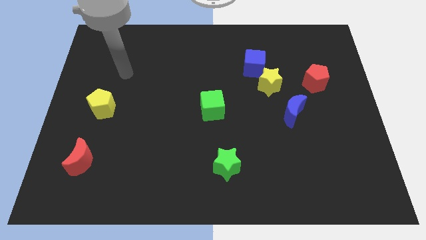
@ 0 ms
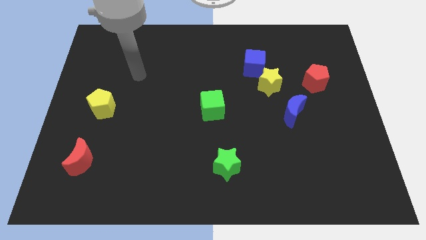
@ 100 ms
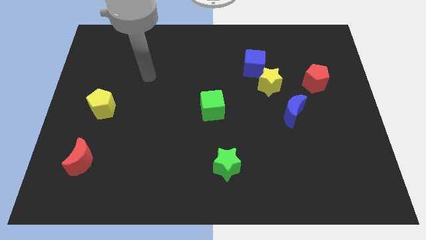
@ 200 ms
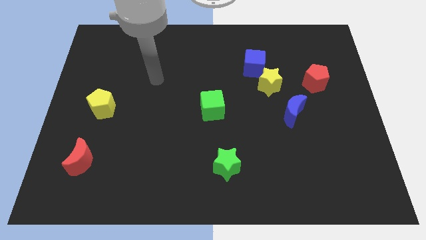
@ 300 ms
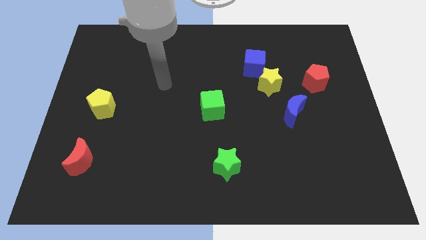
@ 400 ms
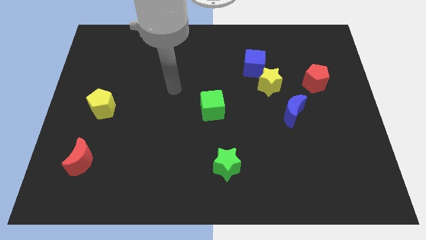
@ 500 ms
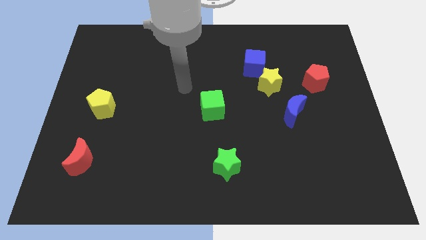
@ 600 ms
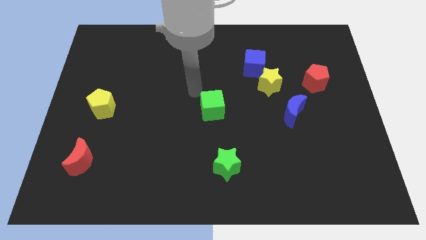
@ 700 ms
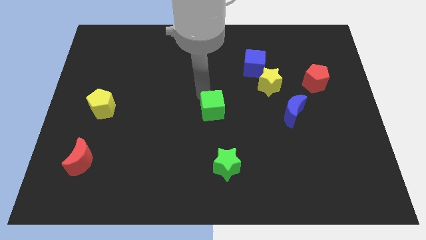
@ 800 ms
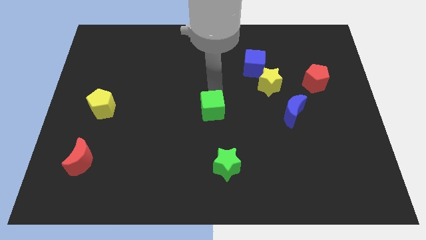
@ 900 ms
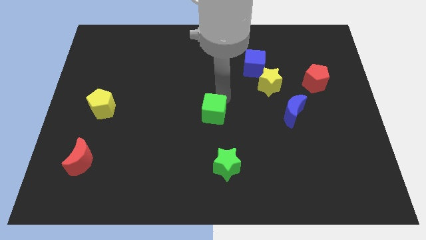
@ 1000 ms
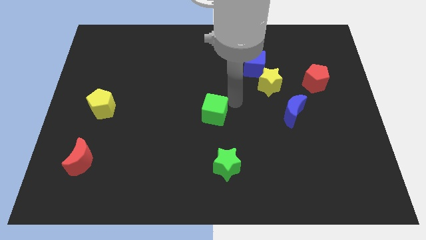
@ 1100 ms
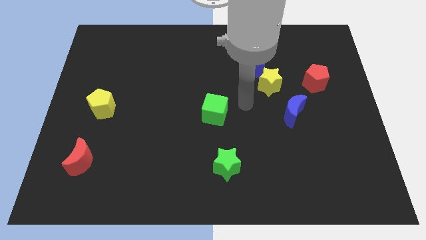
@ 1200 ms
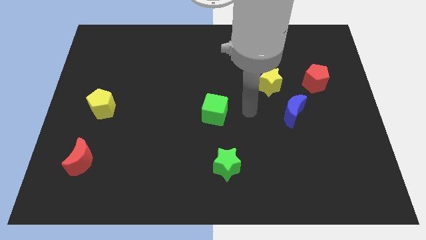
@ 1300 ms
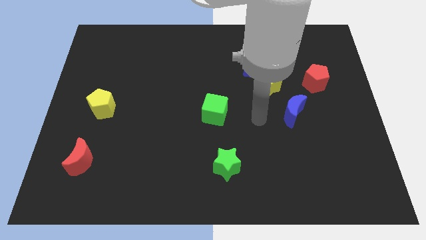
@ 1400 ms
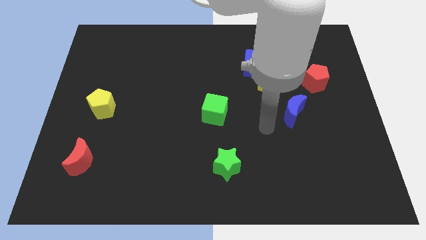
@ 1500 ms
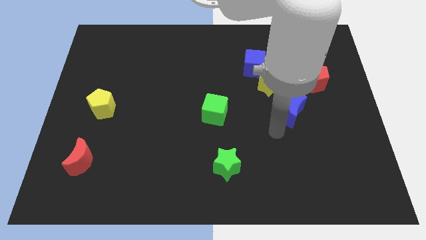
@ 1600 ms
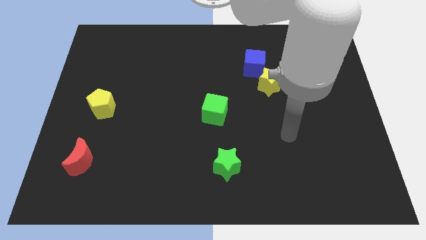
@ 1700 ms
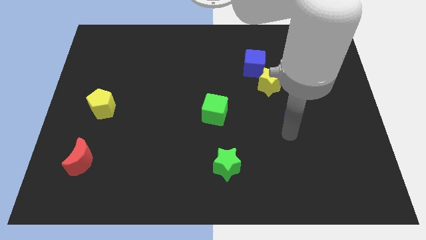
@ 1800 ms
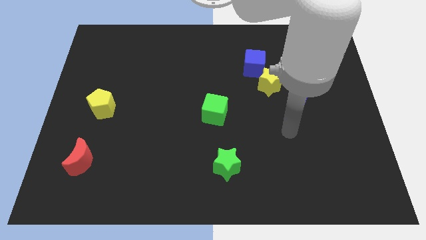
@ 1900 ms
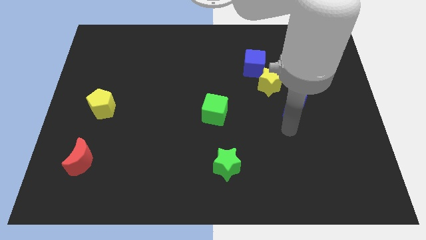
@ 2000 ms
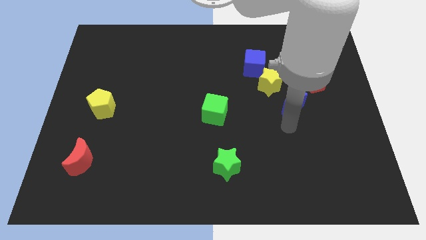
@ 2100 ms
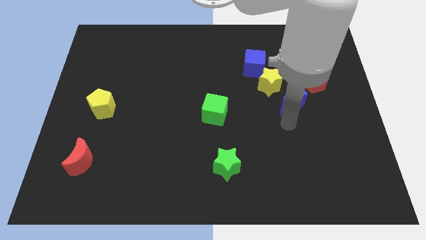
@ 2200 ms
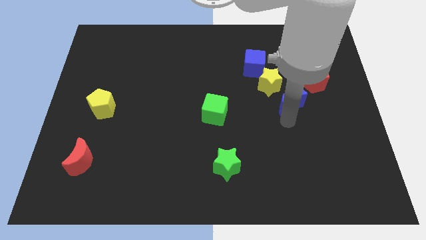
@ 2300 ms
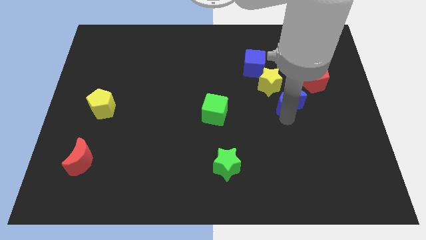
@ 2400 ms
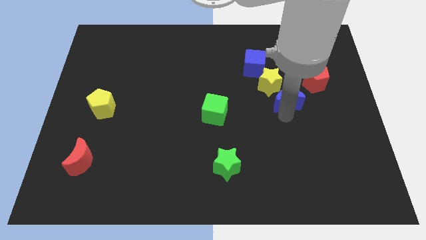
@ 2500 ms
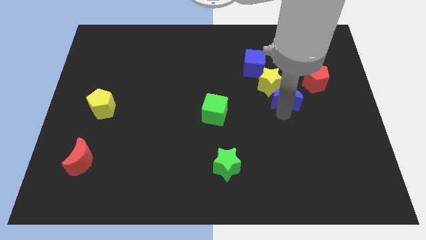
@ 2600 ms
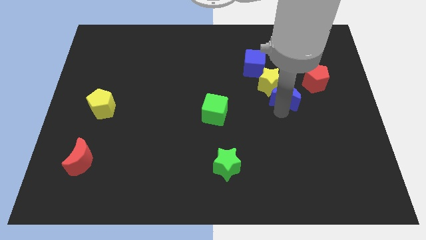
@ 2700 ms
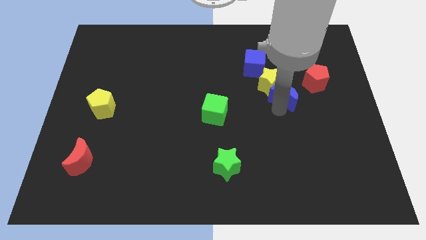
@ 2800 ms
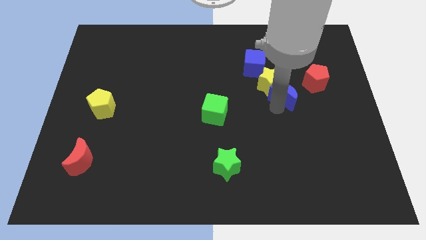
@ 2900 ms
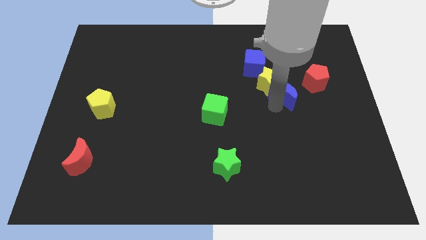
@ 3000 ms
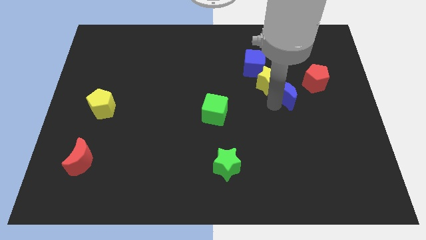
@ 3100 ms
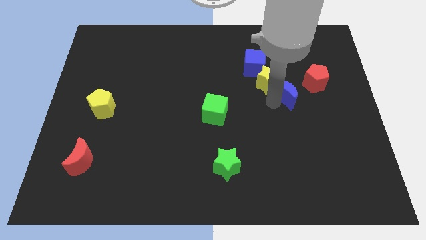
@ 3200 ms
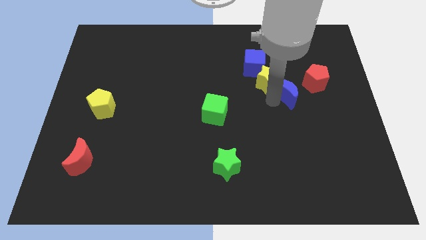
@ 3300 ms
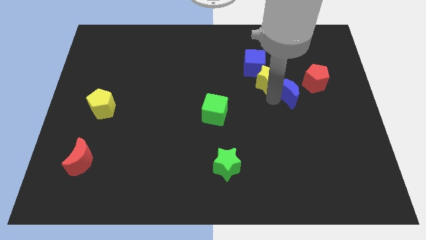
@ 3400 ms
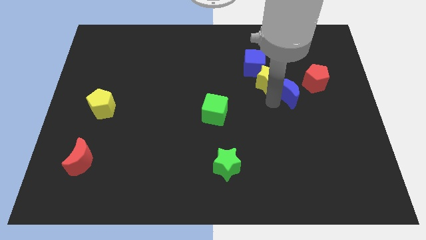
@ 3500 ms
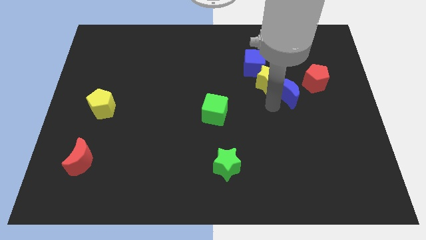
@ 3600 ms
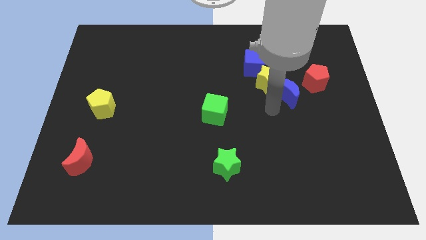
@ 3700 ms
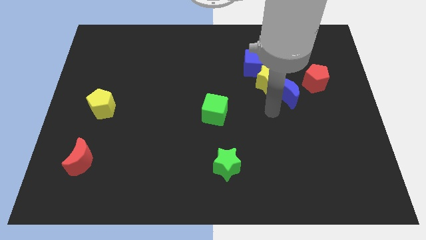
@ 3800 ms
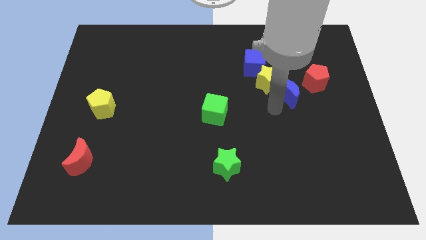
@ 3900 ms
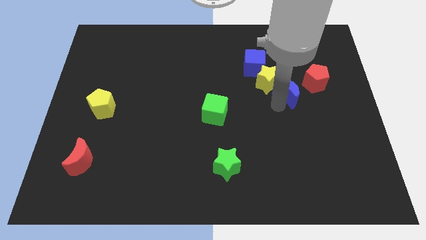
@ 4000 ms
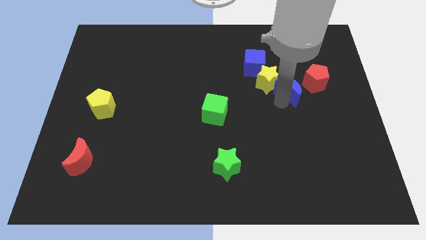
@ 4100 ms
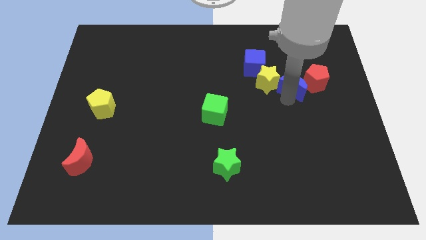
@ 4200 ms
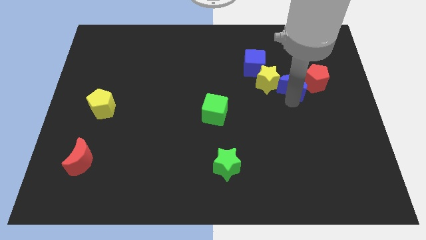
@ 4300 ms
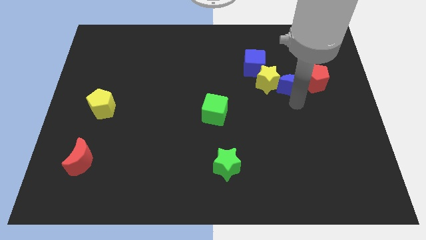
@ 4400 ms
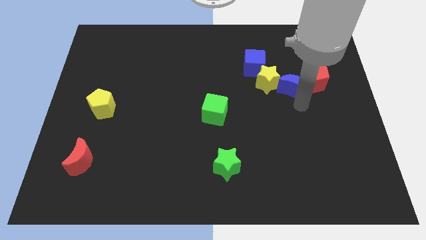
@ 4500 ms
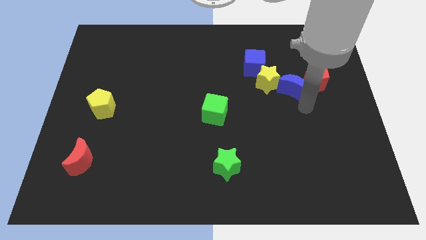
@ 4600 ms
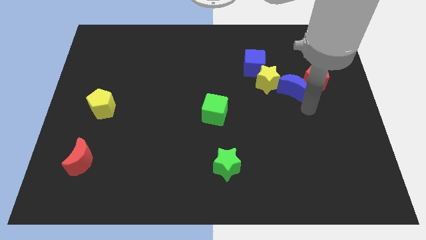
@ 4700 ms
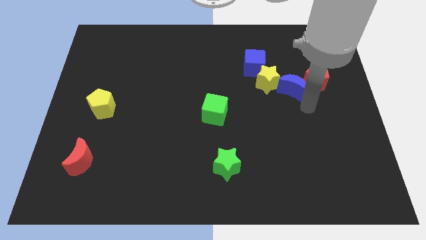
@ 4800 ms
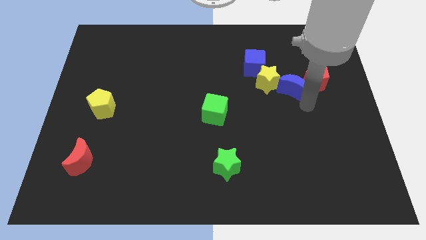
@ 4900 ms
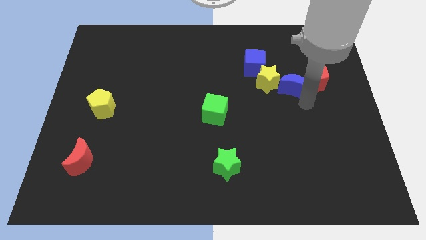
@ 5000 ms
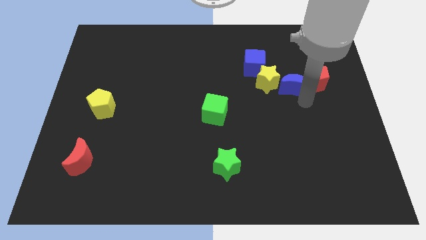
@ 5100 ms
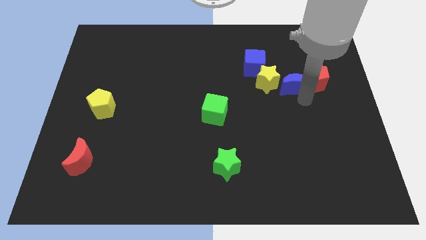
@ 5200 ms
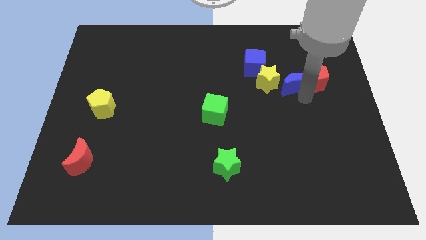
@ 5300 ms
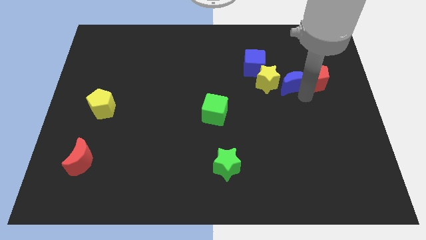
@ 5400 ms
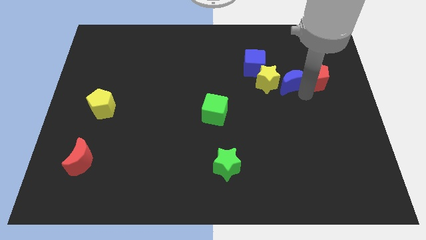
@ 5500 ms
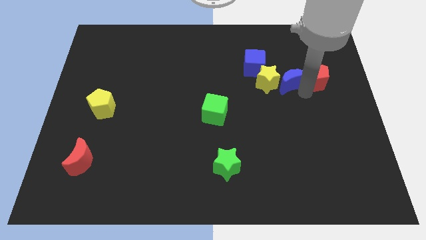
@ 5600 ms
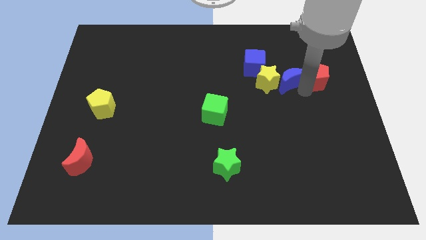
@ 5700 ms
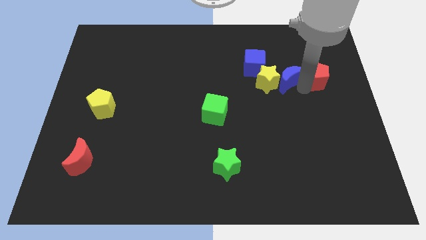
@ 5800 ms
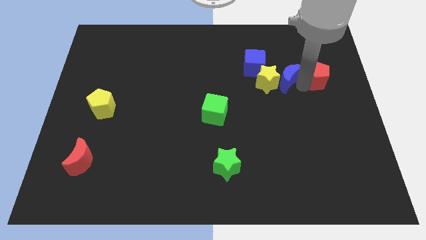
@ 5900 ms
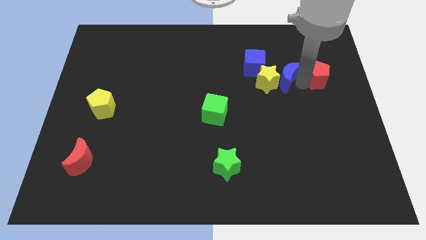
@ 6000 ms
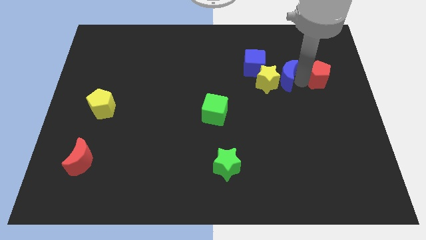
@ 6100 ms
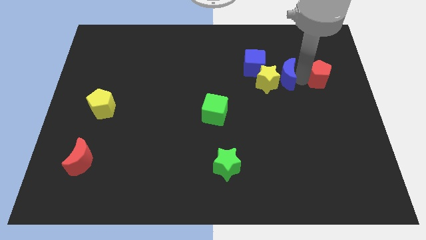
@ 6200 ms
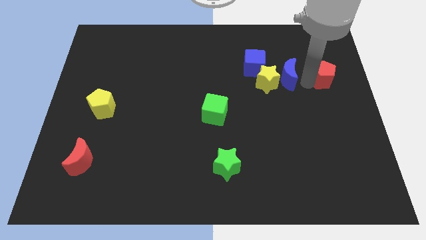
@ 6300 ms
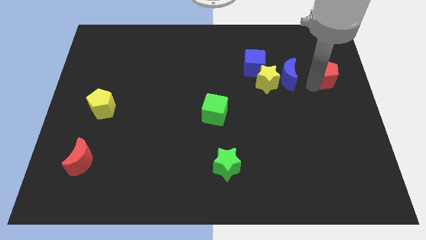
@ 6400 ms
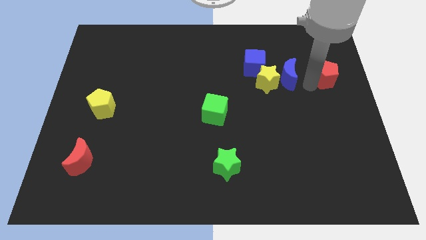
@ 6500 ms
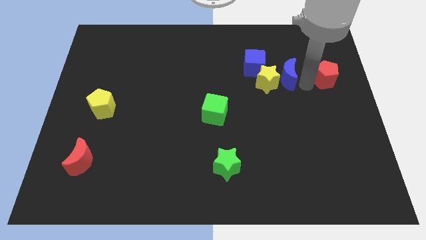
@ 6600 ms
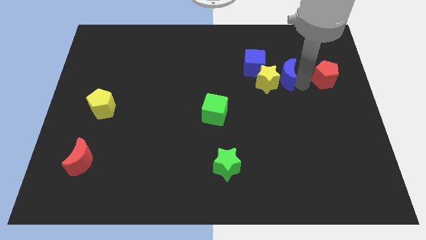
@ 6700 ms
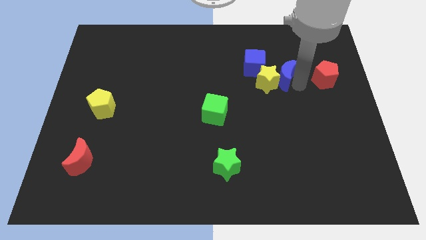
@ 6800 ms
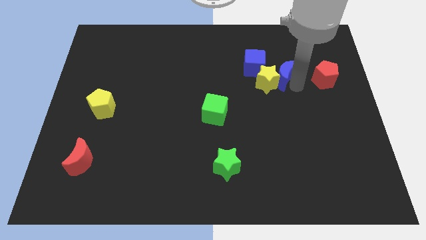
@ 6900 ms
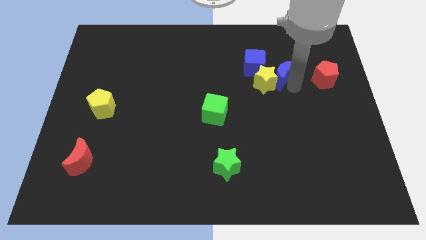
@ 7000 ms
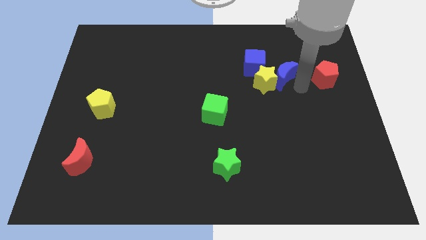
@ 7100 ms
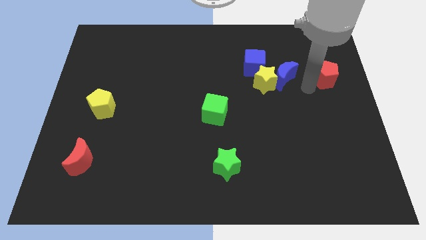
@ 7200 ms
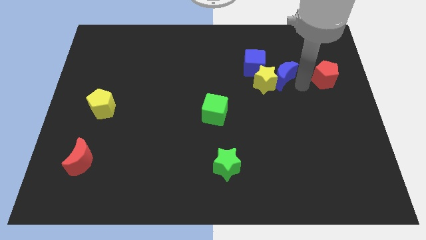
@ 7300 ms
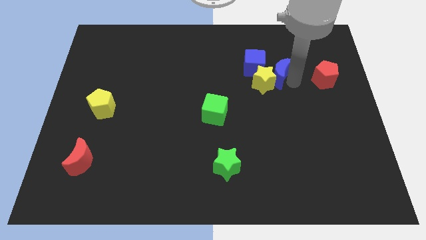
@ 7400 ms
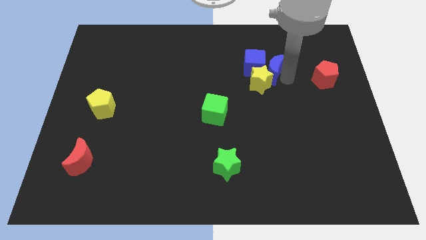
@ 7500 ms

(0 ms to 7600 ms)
move the blue moon towards the blue cube
